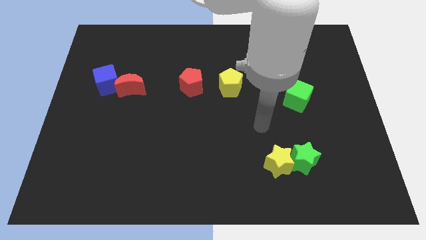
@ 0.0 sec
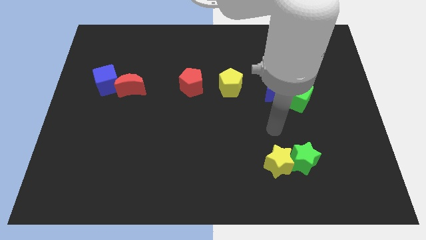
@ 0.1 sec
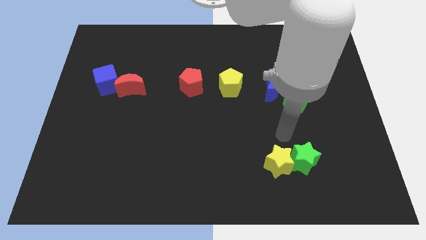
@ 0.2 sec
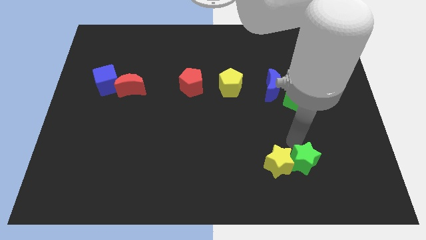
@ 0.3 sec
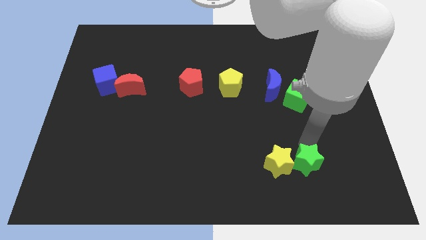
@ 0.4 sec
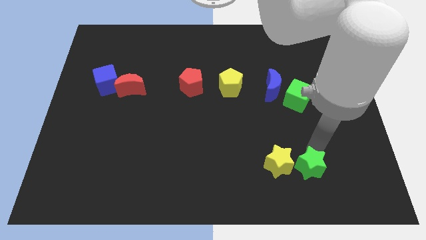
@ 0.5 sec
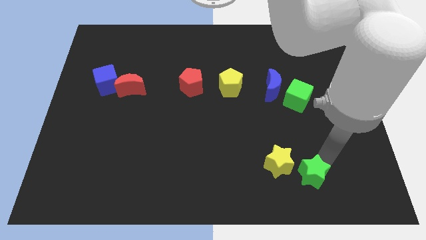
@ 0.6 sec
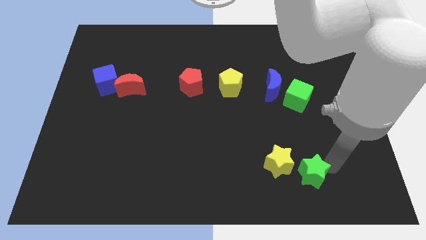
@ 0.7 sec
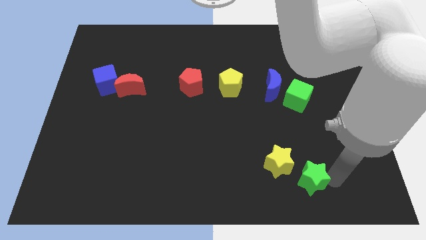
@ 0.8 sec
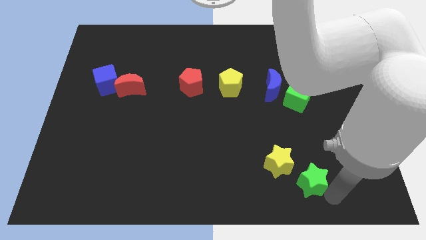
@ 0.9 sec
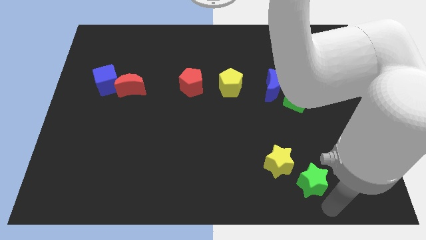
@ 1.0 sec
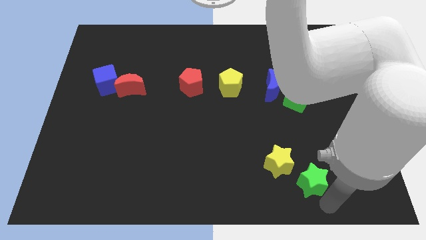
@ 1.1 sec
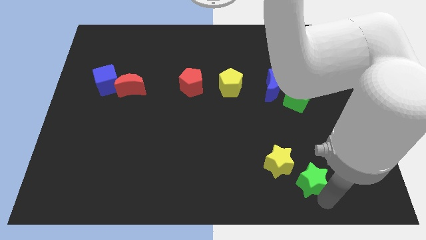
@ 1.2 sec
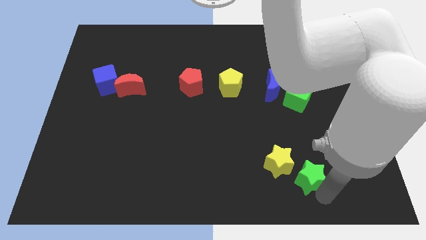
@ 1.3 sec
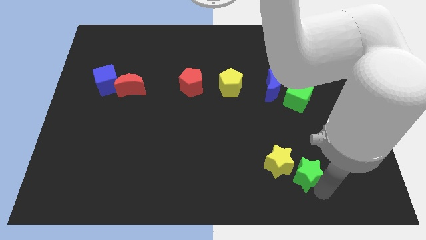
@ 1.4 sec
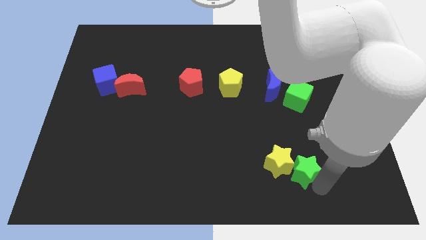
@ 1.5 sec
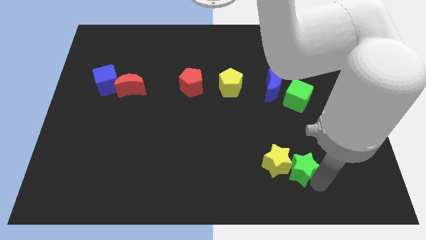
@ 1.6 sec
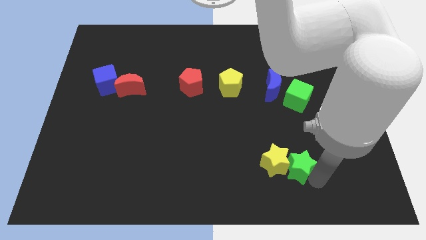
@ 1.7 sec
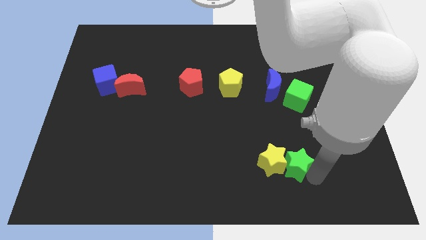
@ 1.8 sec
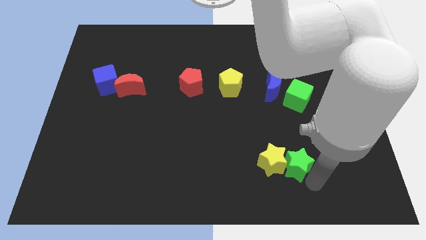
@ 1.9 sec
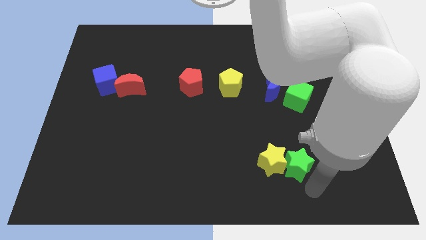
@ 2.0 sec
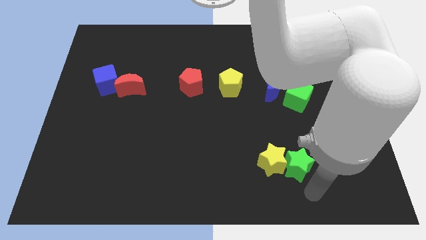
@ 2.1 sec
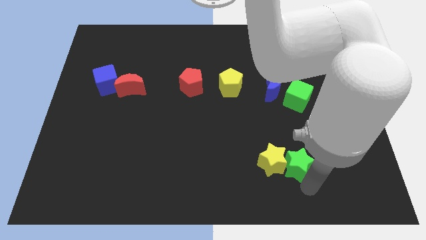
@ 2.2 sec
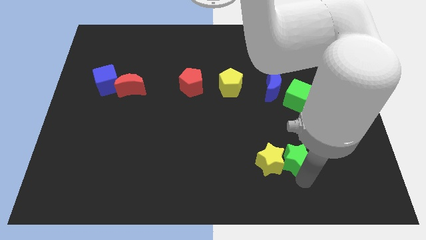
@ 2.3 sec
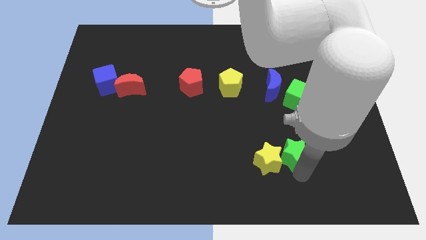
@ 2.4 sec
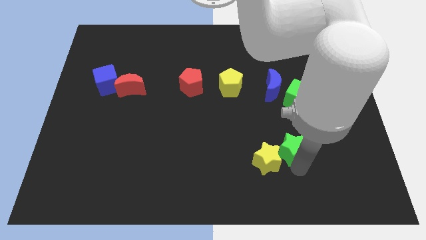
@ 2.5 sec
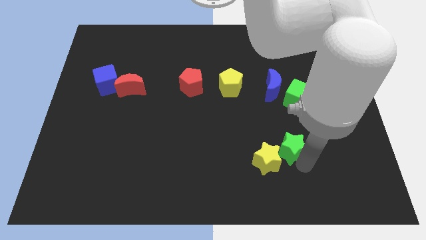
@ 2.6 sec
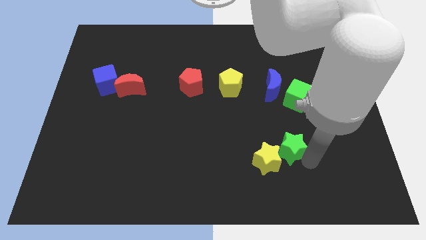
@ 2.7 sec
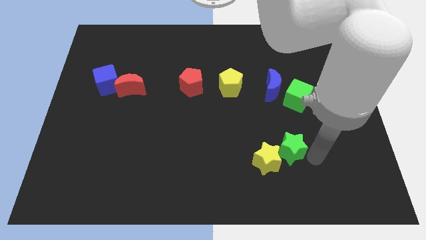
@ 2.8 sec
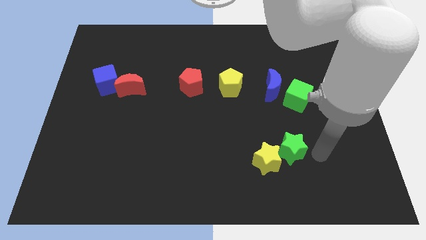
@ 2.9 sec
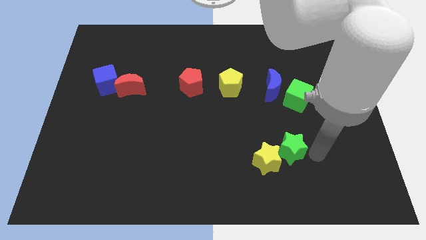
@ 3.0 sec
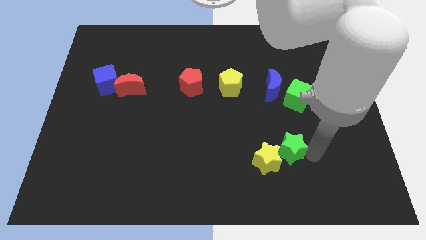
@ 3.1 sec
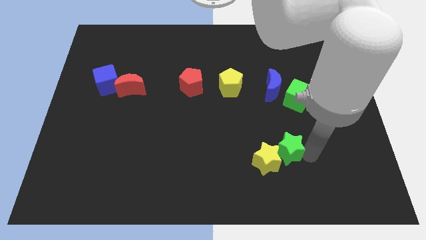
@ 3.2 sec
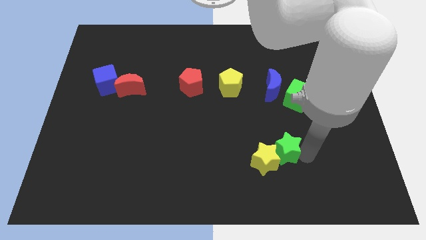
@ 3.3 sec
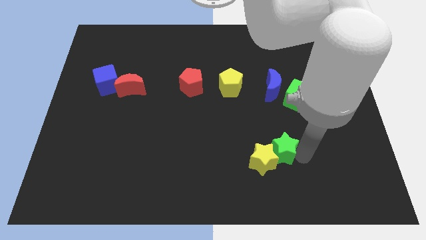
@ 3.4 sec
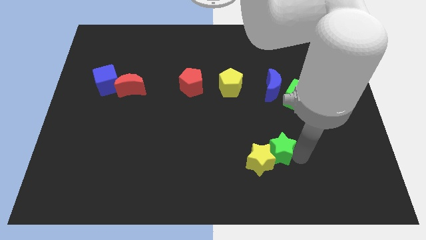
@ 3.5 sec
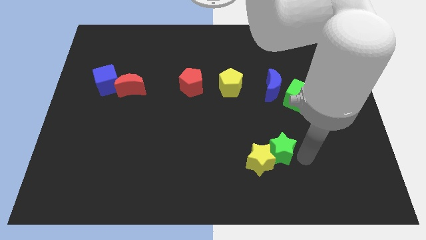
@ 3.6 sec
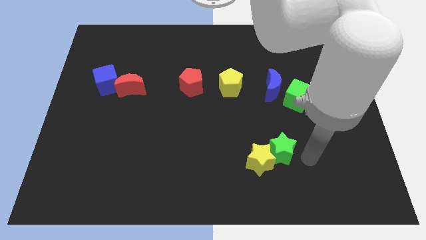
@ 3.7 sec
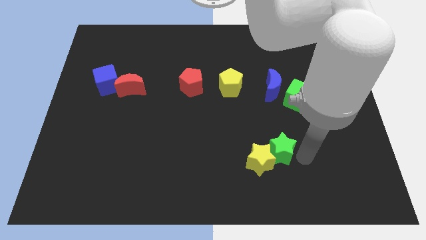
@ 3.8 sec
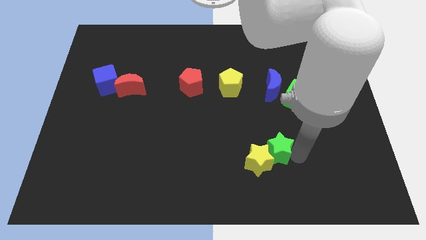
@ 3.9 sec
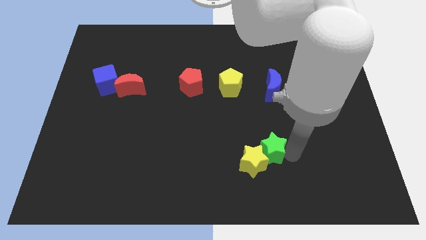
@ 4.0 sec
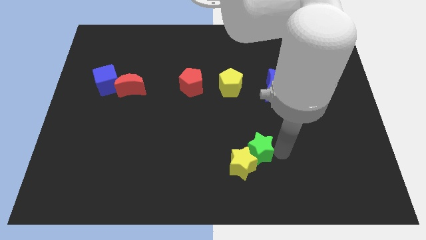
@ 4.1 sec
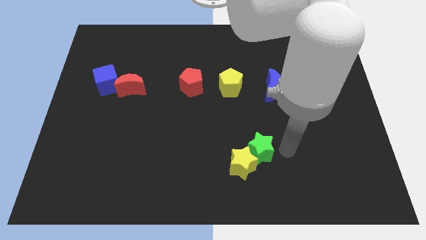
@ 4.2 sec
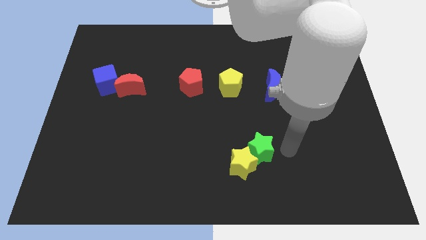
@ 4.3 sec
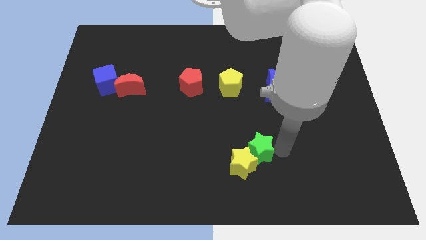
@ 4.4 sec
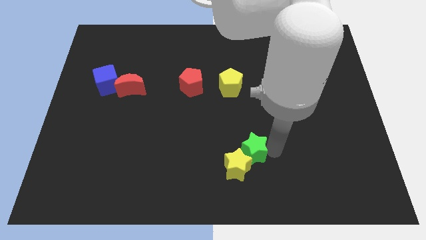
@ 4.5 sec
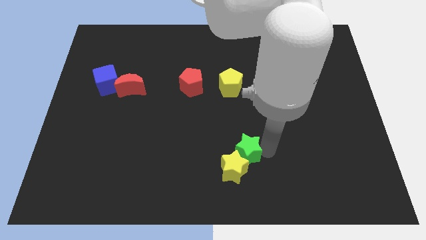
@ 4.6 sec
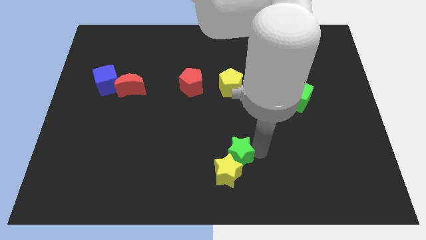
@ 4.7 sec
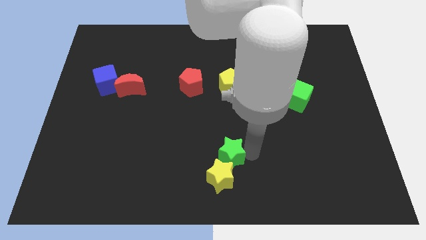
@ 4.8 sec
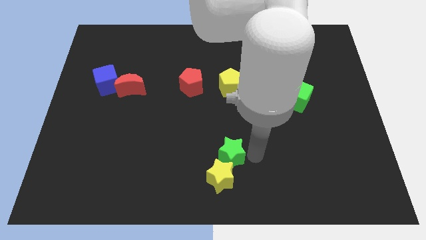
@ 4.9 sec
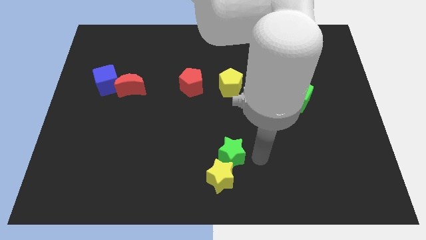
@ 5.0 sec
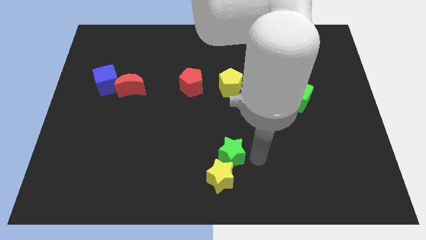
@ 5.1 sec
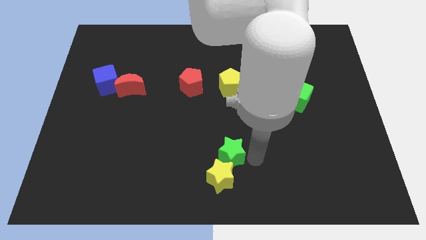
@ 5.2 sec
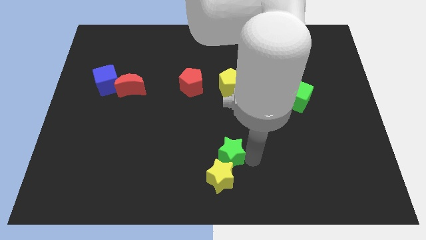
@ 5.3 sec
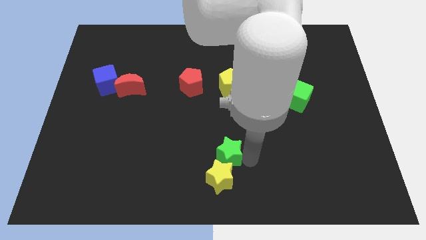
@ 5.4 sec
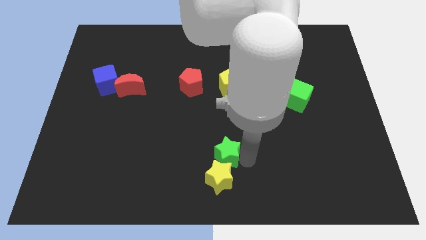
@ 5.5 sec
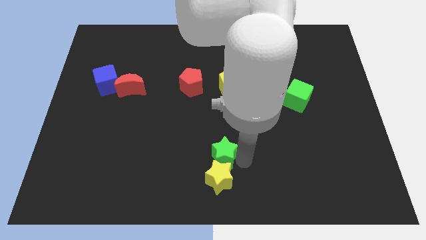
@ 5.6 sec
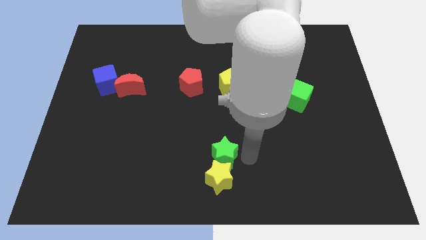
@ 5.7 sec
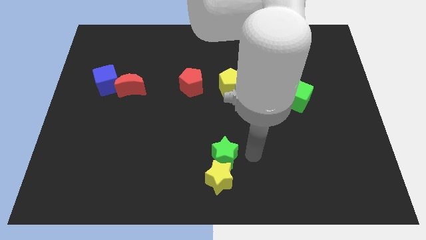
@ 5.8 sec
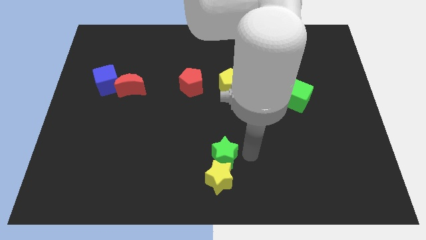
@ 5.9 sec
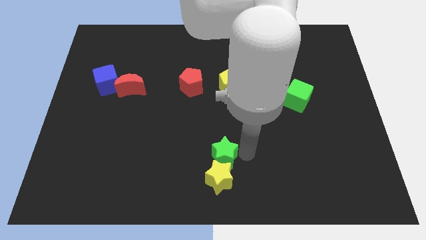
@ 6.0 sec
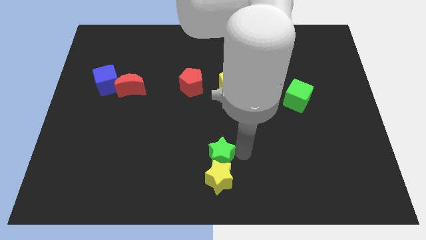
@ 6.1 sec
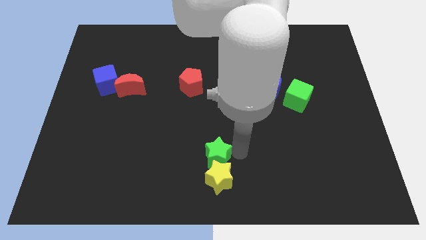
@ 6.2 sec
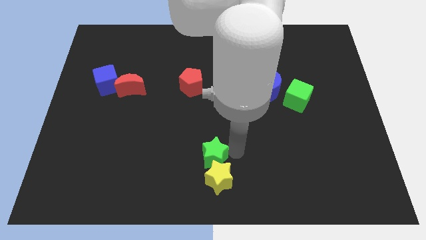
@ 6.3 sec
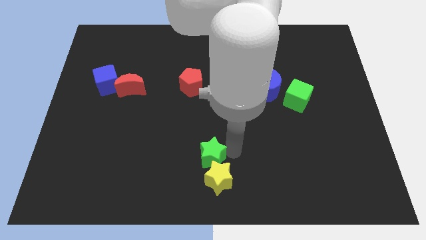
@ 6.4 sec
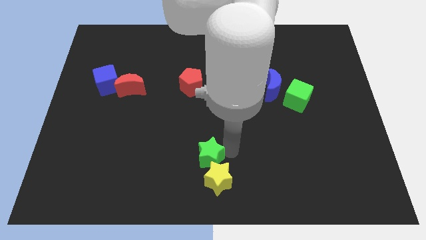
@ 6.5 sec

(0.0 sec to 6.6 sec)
move the green star left

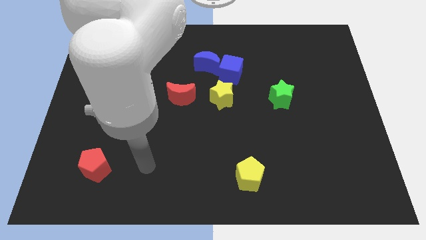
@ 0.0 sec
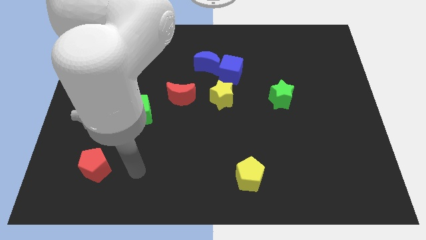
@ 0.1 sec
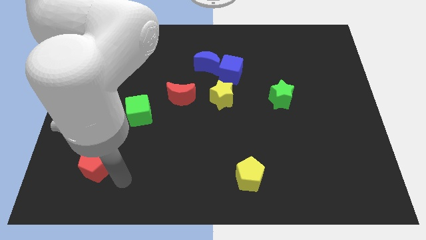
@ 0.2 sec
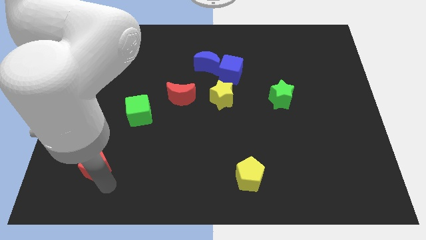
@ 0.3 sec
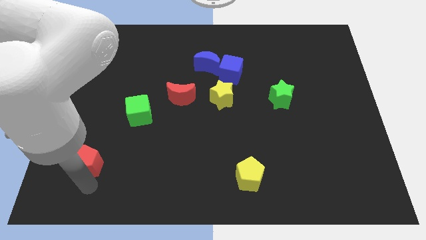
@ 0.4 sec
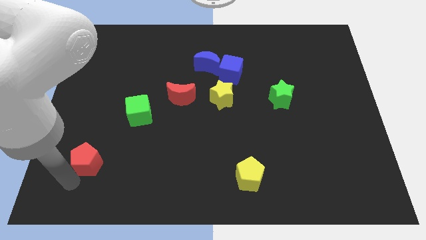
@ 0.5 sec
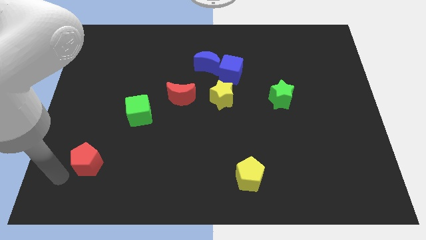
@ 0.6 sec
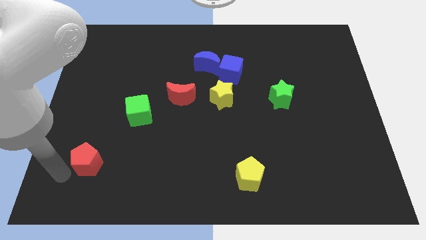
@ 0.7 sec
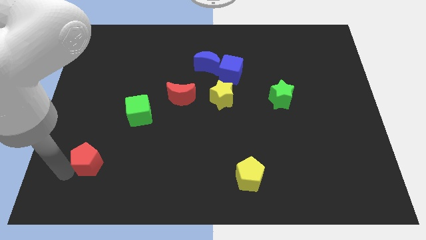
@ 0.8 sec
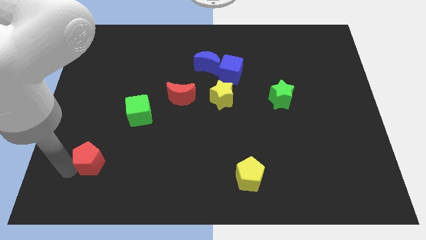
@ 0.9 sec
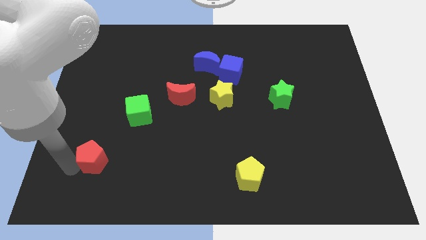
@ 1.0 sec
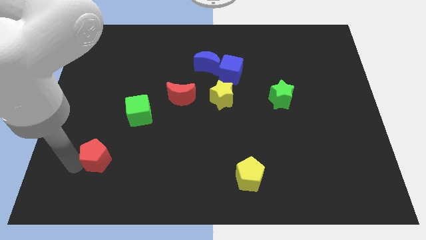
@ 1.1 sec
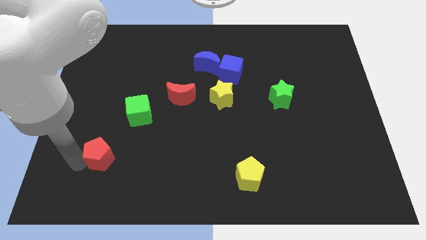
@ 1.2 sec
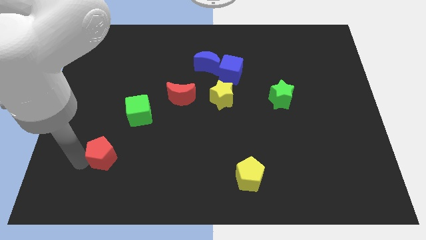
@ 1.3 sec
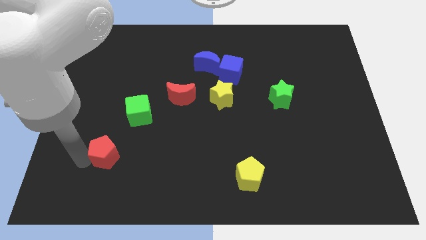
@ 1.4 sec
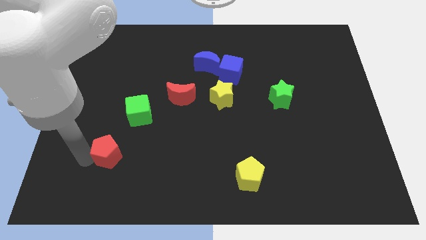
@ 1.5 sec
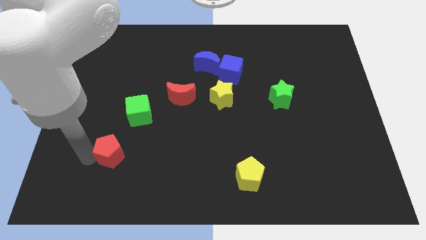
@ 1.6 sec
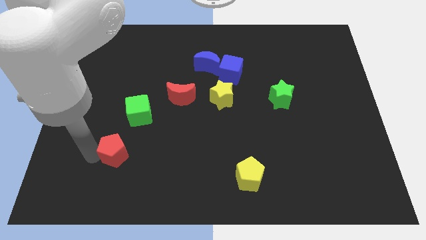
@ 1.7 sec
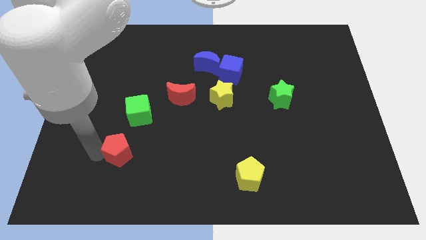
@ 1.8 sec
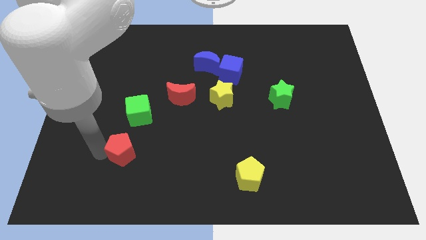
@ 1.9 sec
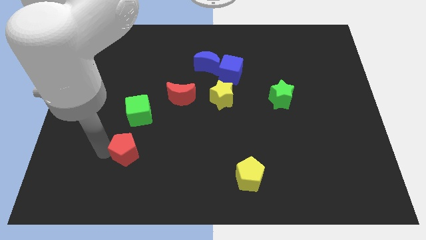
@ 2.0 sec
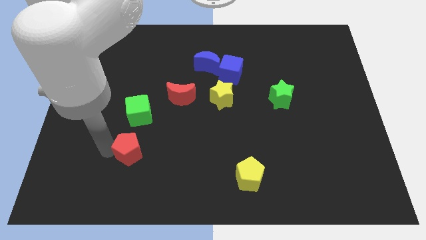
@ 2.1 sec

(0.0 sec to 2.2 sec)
slightly slide the red pentagon up and to the right diagonally
